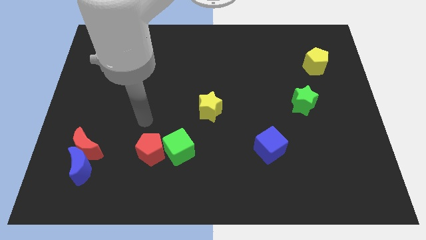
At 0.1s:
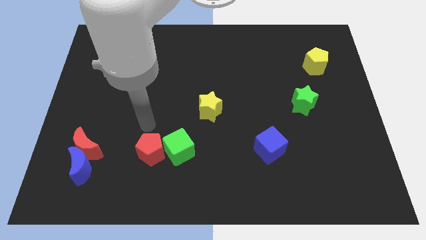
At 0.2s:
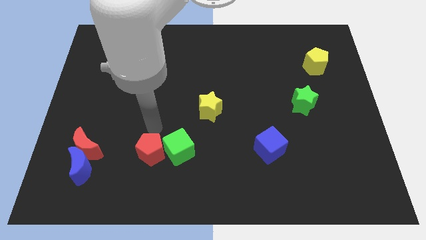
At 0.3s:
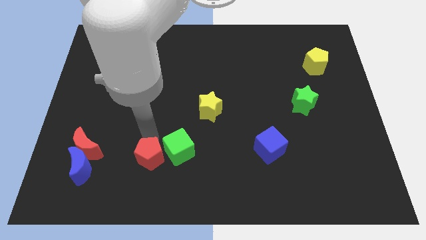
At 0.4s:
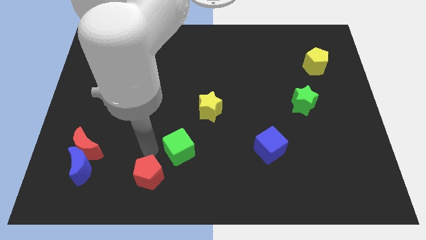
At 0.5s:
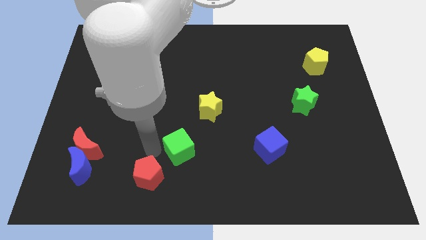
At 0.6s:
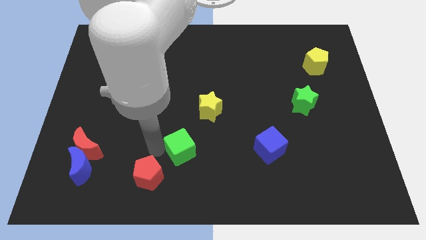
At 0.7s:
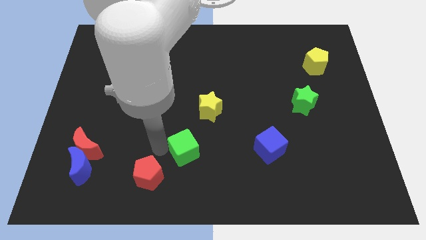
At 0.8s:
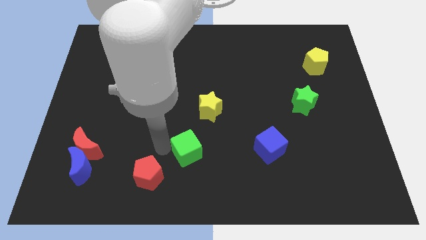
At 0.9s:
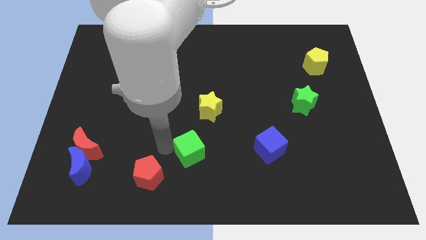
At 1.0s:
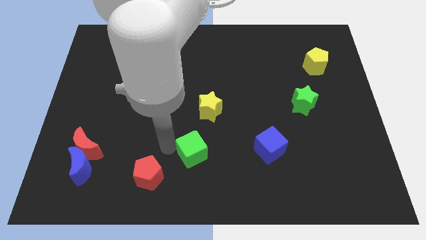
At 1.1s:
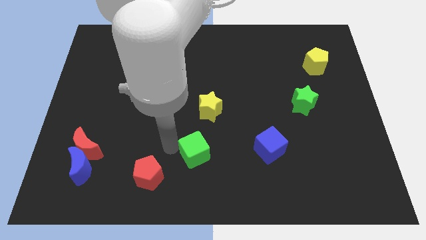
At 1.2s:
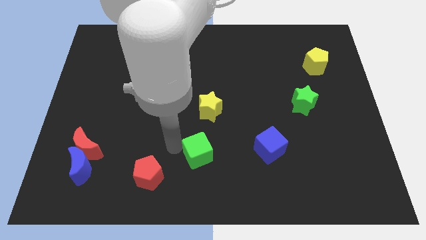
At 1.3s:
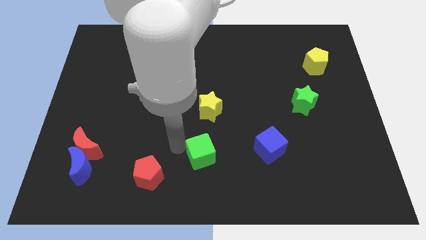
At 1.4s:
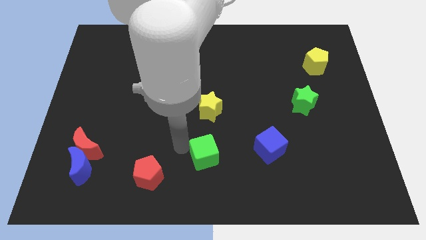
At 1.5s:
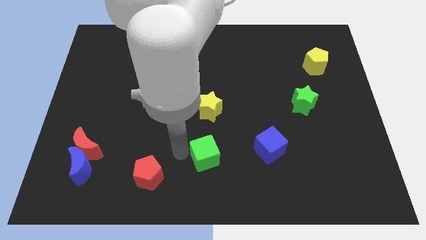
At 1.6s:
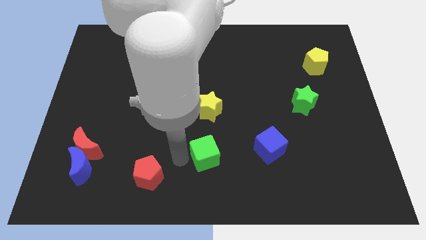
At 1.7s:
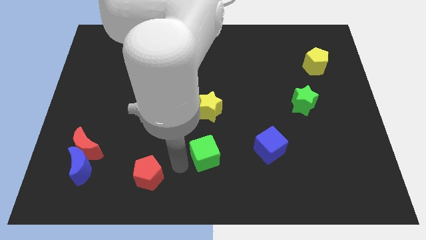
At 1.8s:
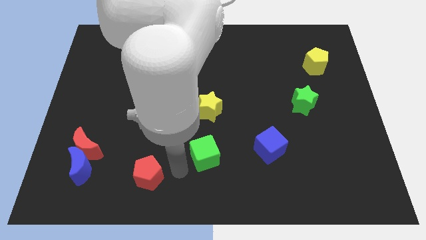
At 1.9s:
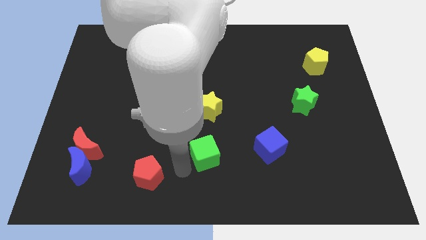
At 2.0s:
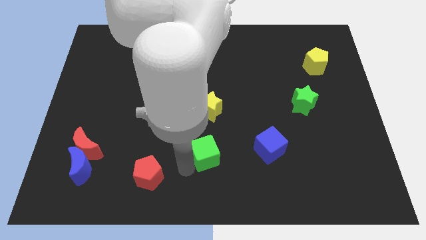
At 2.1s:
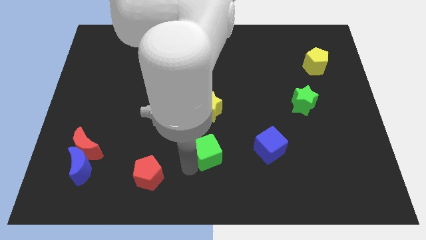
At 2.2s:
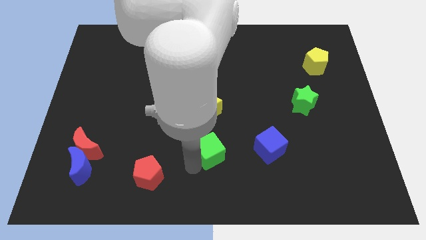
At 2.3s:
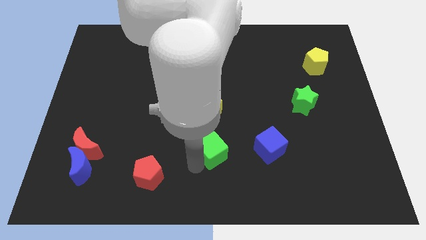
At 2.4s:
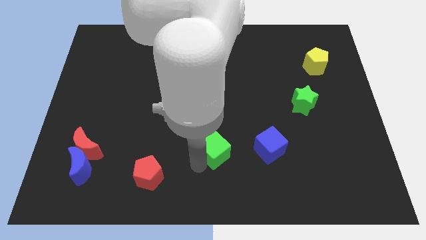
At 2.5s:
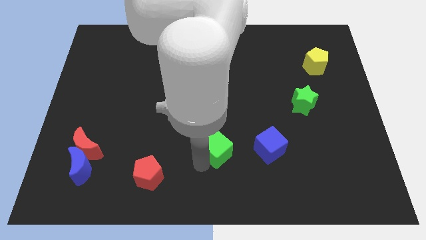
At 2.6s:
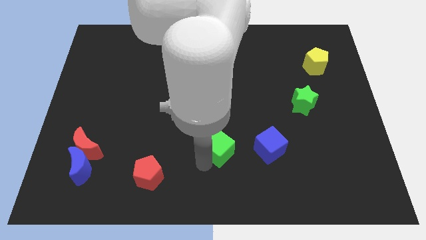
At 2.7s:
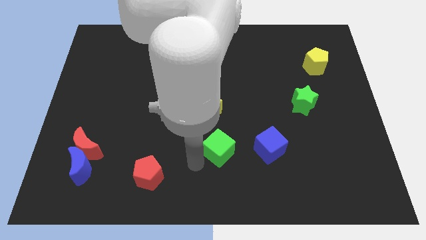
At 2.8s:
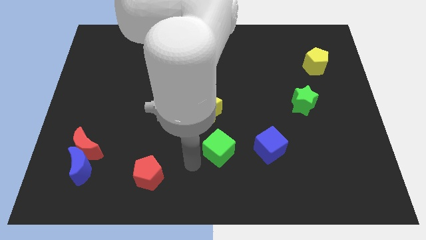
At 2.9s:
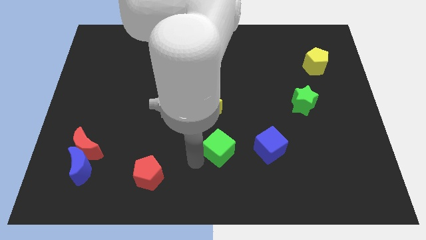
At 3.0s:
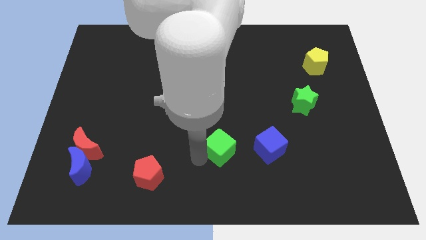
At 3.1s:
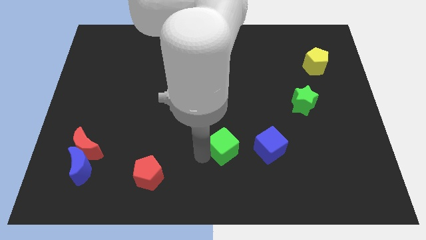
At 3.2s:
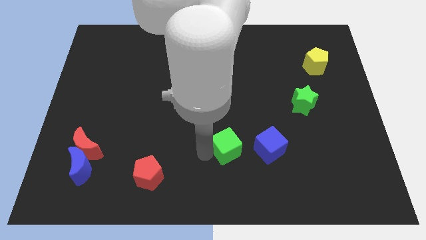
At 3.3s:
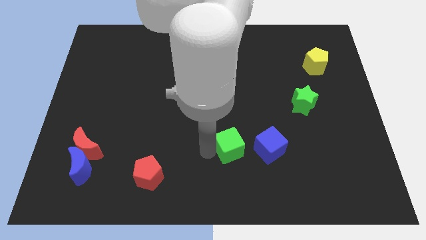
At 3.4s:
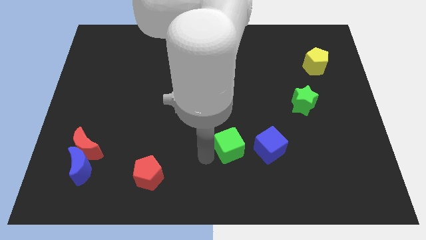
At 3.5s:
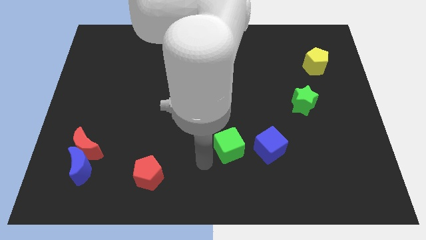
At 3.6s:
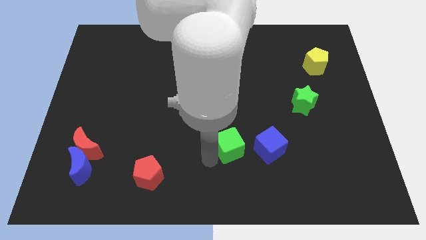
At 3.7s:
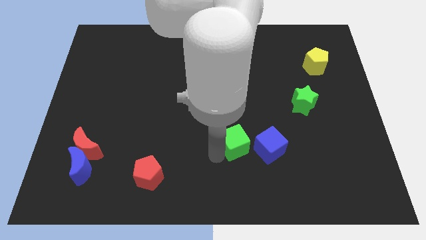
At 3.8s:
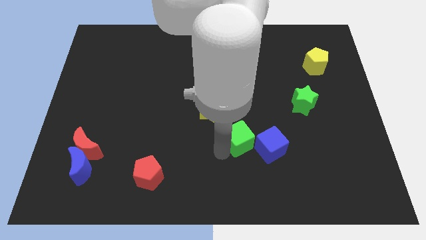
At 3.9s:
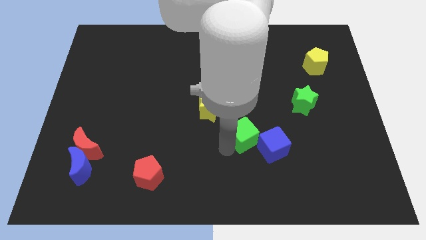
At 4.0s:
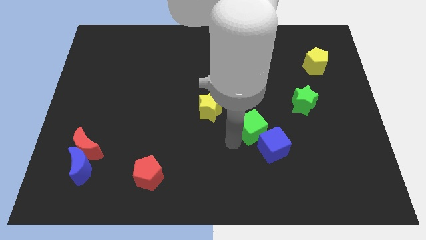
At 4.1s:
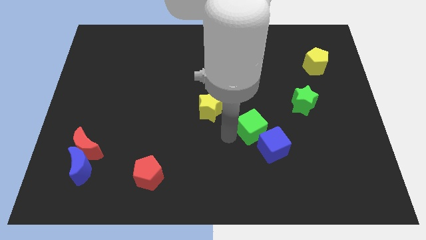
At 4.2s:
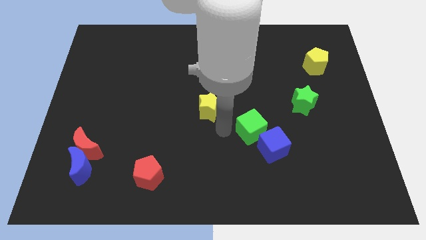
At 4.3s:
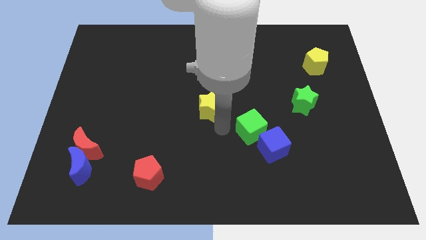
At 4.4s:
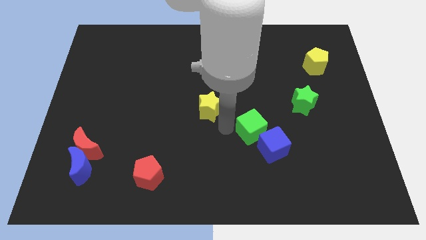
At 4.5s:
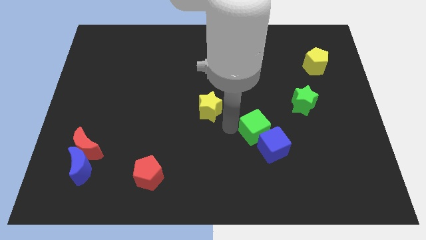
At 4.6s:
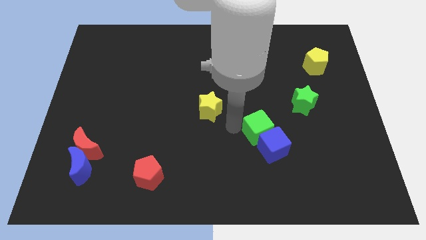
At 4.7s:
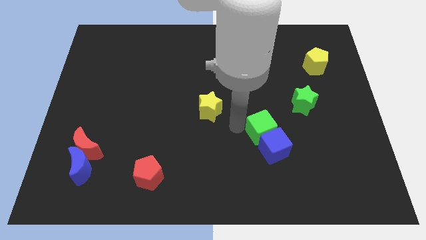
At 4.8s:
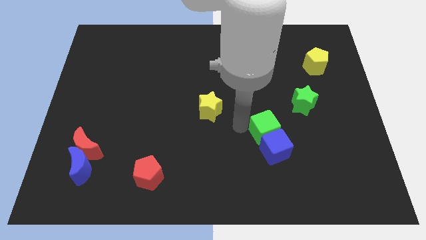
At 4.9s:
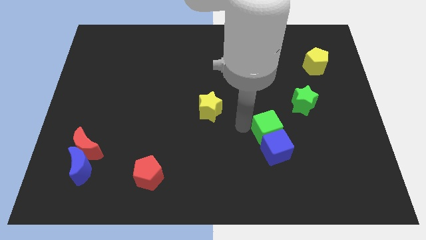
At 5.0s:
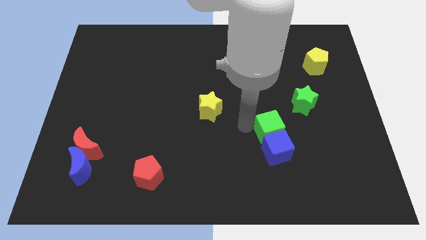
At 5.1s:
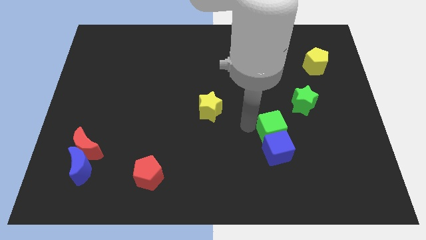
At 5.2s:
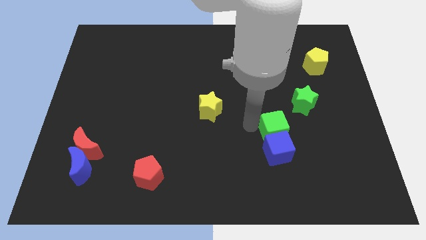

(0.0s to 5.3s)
slide the green cube to the right

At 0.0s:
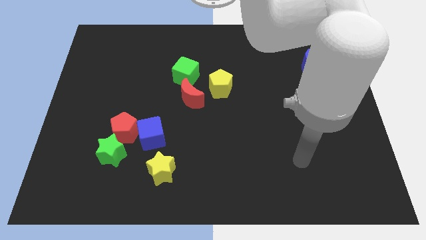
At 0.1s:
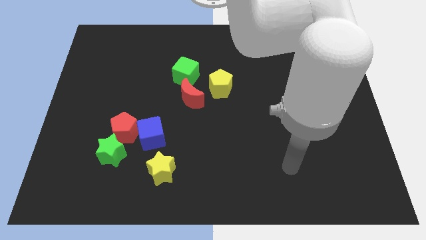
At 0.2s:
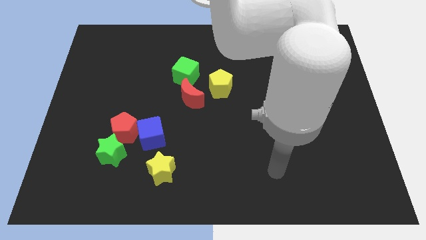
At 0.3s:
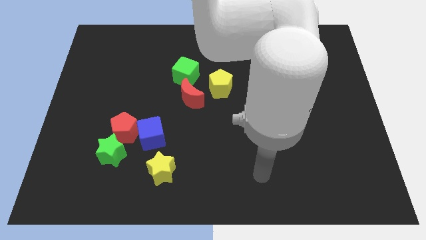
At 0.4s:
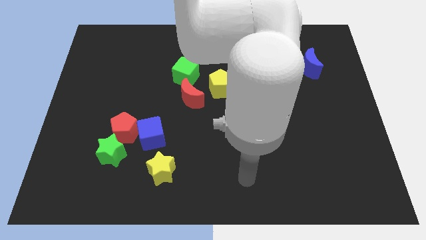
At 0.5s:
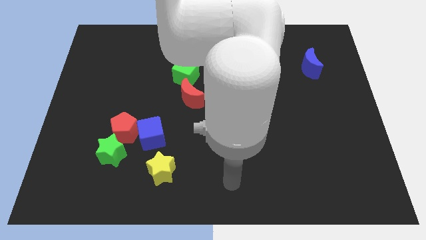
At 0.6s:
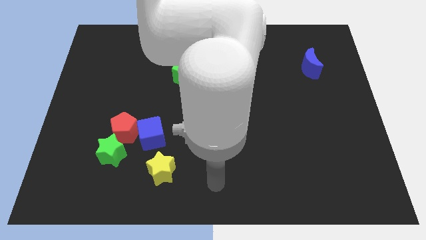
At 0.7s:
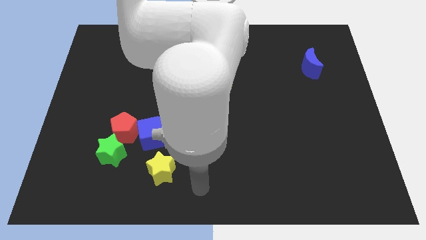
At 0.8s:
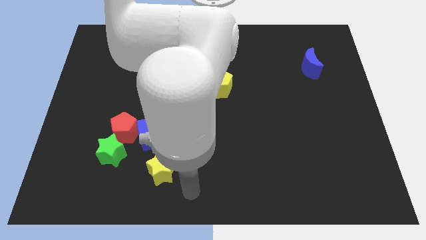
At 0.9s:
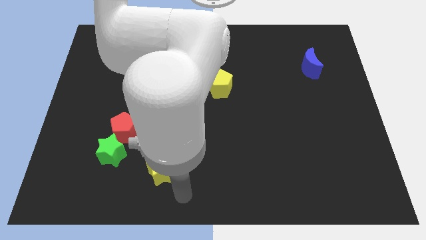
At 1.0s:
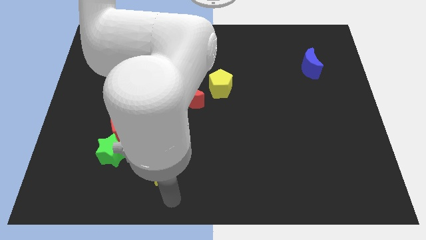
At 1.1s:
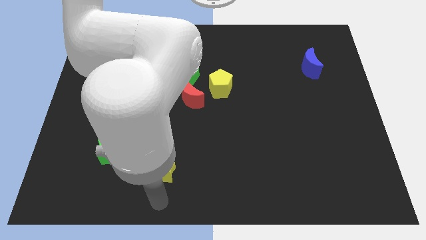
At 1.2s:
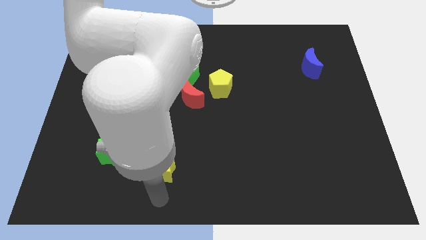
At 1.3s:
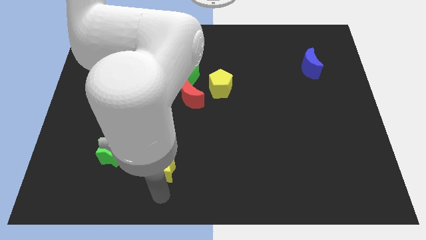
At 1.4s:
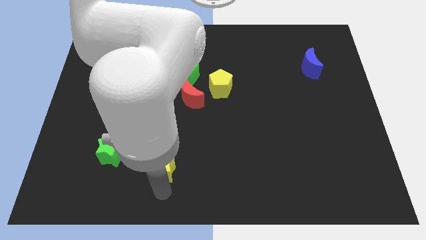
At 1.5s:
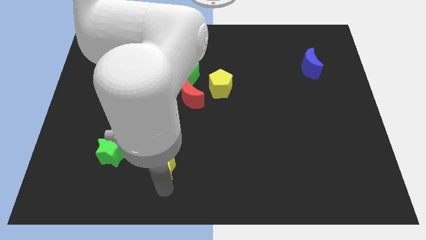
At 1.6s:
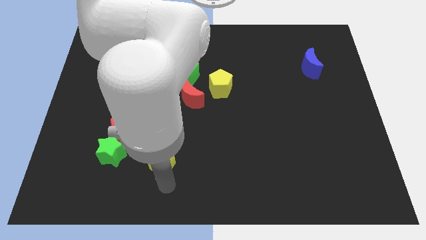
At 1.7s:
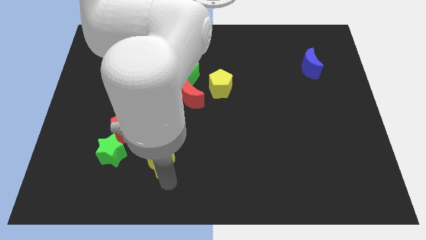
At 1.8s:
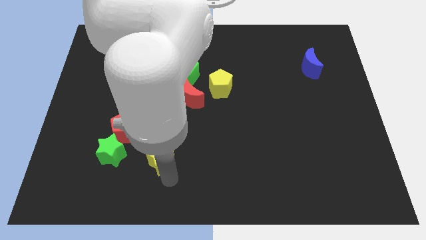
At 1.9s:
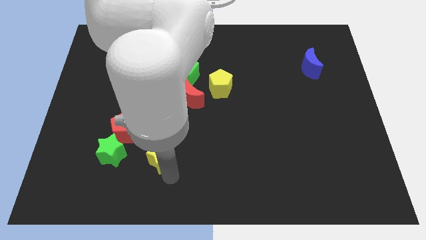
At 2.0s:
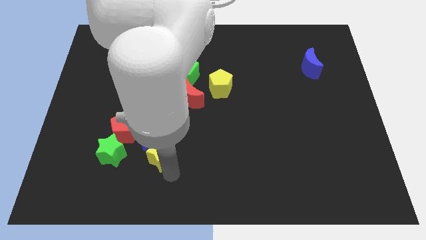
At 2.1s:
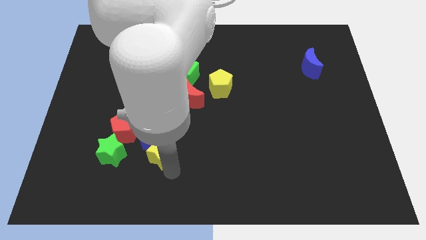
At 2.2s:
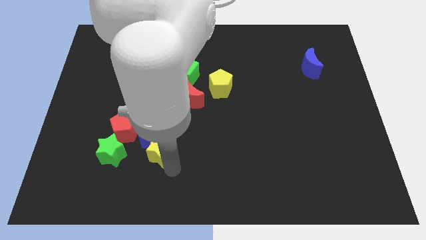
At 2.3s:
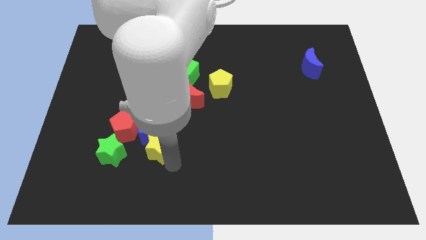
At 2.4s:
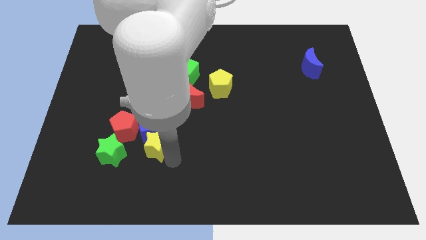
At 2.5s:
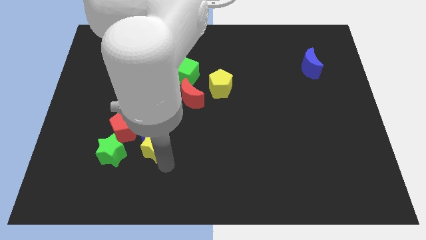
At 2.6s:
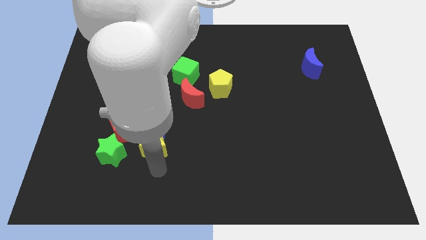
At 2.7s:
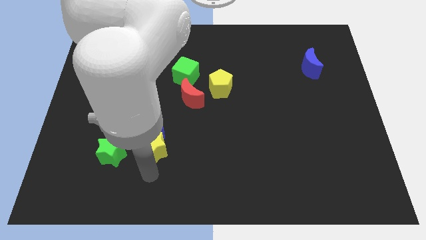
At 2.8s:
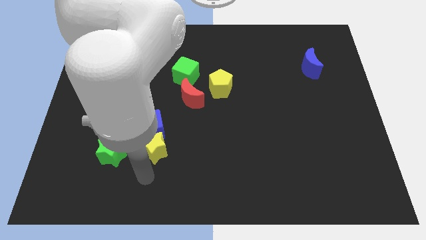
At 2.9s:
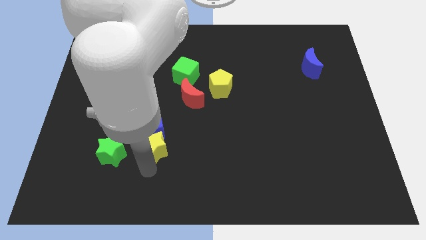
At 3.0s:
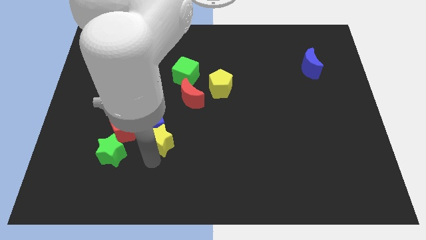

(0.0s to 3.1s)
slide the yellow star upwards a little

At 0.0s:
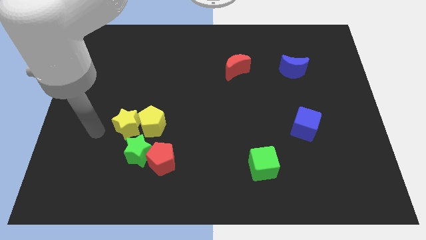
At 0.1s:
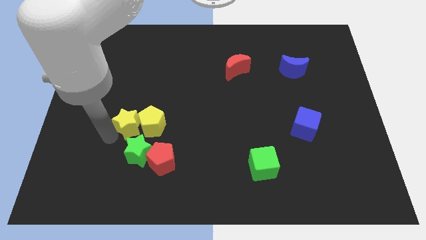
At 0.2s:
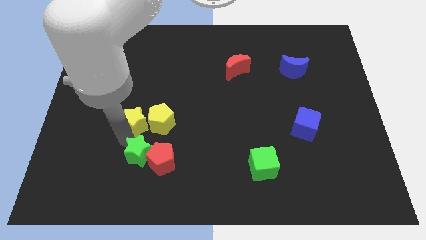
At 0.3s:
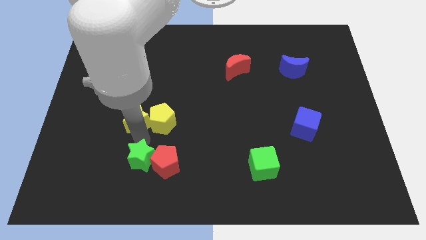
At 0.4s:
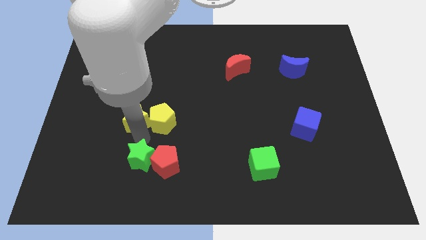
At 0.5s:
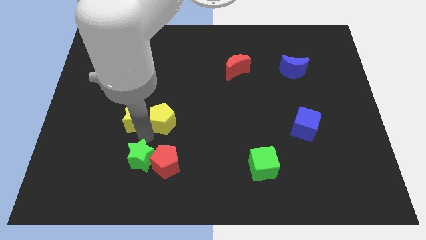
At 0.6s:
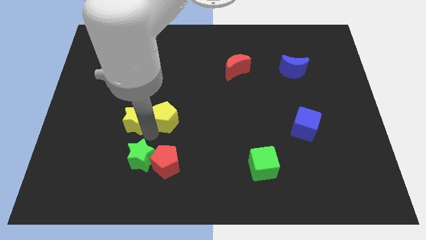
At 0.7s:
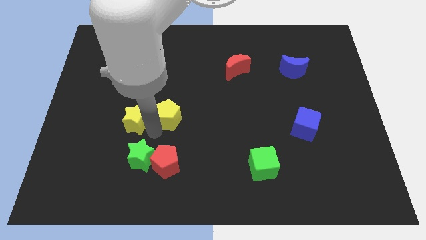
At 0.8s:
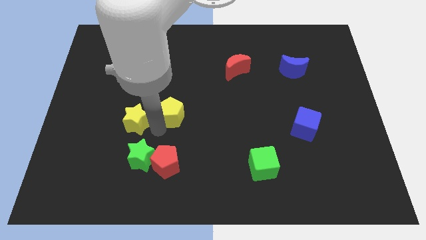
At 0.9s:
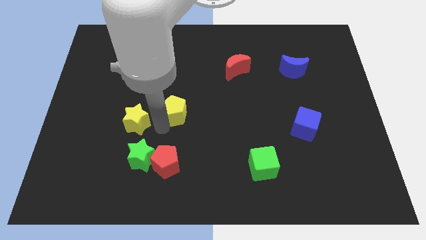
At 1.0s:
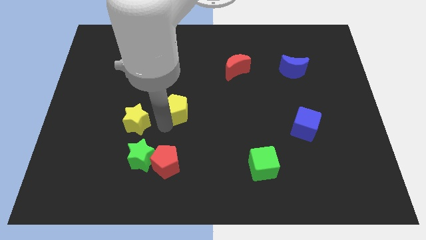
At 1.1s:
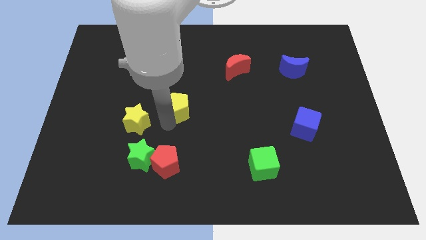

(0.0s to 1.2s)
move the yellow pentagon up and then right a bit
